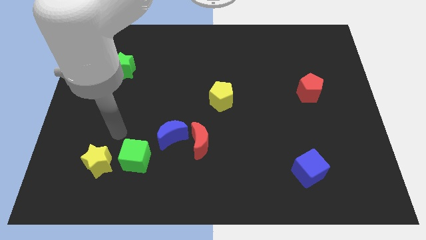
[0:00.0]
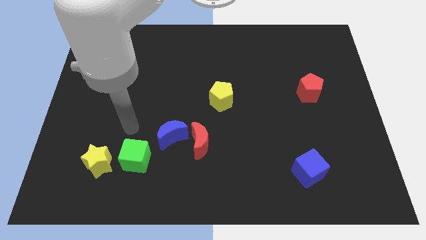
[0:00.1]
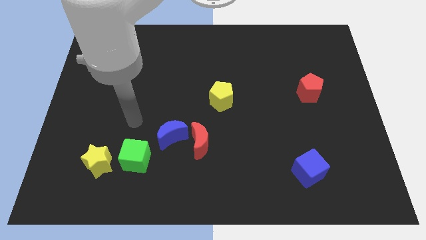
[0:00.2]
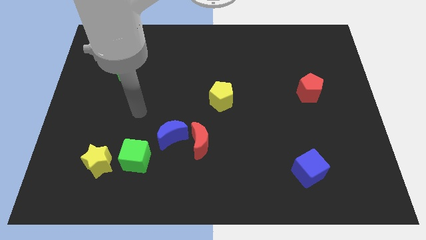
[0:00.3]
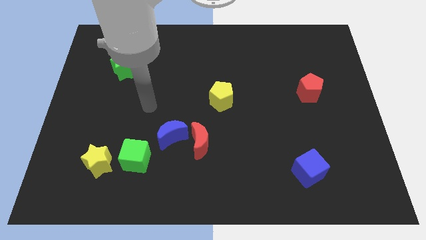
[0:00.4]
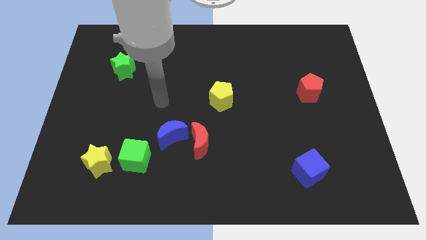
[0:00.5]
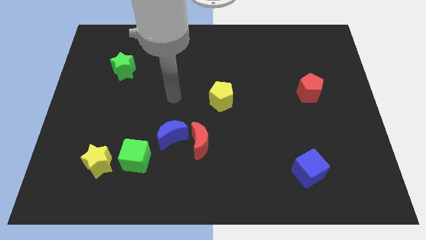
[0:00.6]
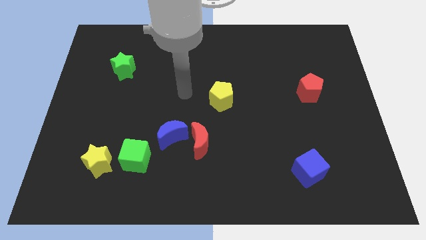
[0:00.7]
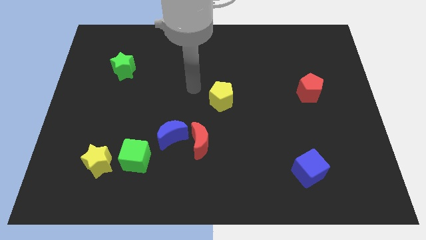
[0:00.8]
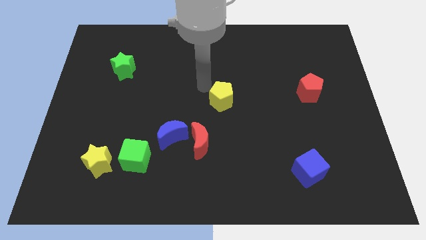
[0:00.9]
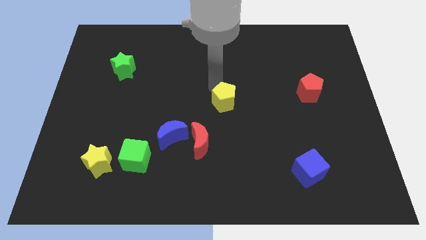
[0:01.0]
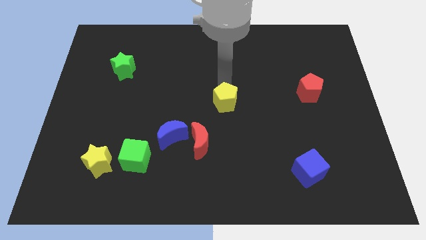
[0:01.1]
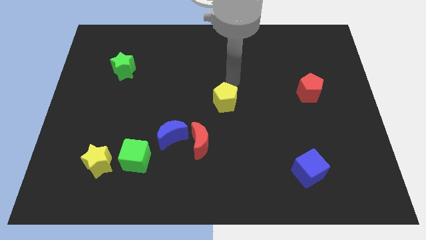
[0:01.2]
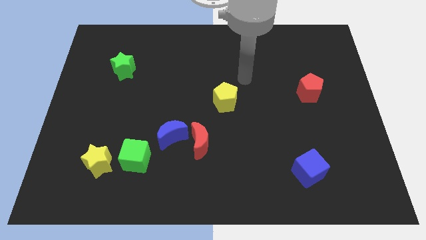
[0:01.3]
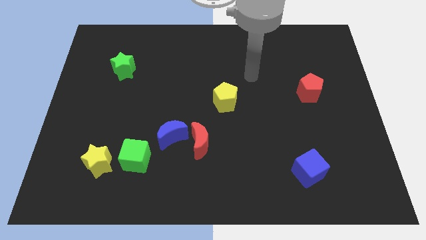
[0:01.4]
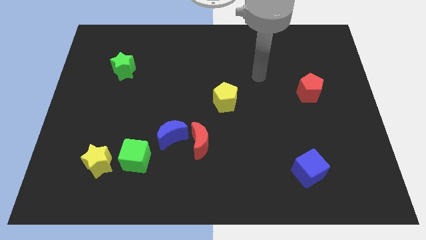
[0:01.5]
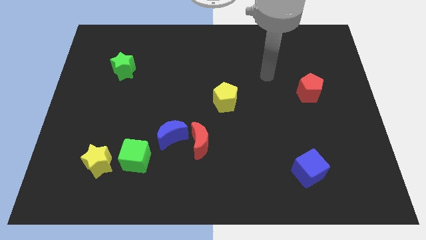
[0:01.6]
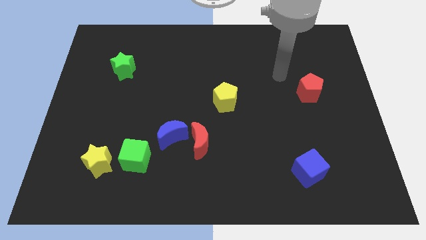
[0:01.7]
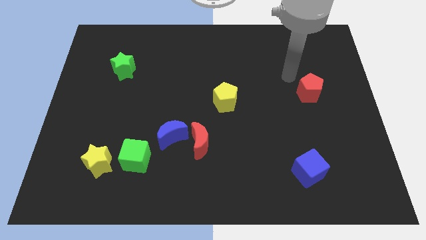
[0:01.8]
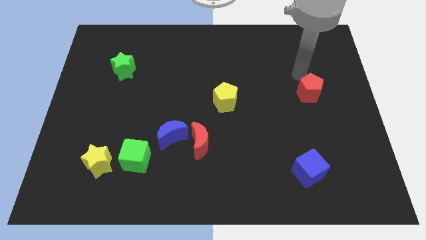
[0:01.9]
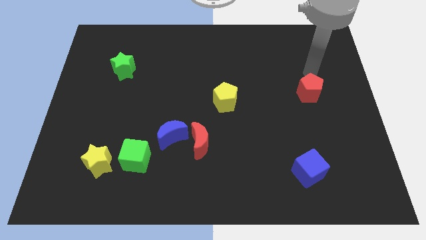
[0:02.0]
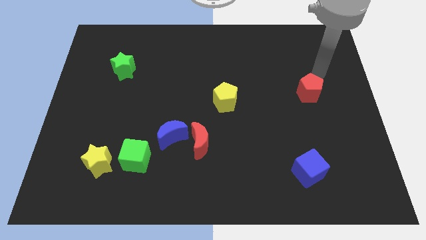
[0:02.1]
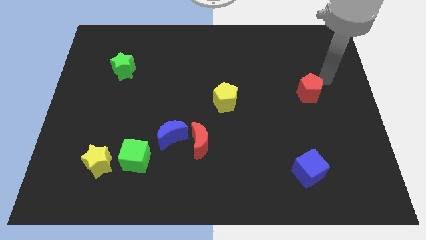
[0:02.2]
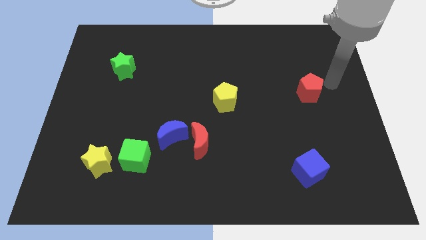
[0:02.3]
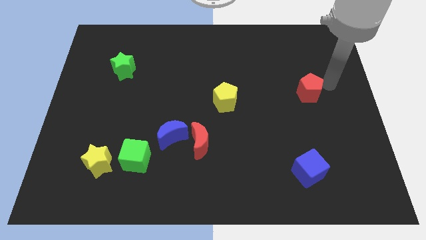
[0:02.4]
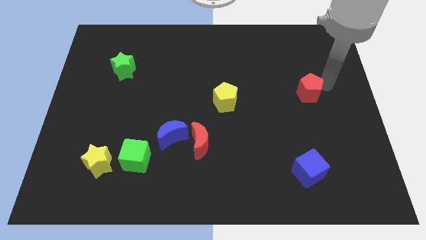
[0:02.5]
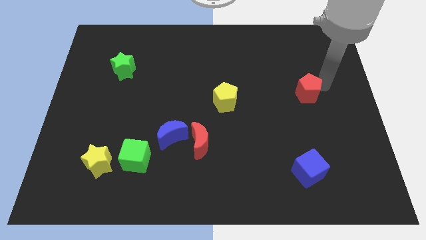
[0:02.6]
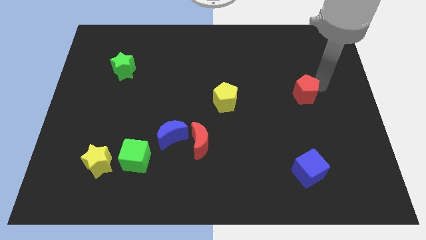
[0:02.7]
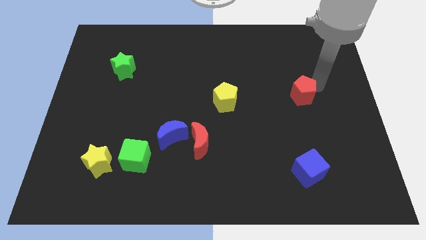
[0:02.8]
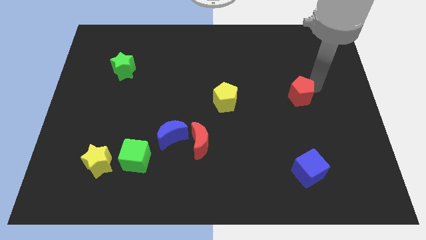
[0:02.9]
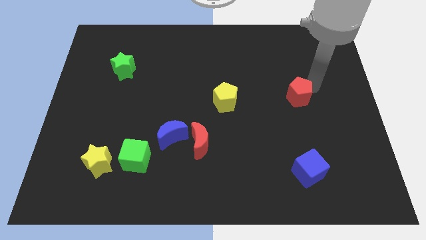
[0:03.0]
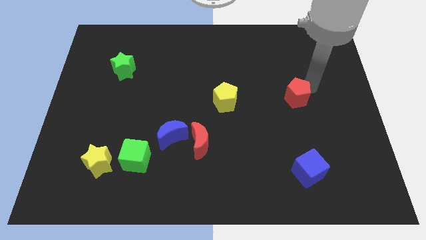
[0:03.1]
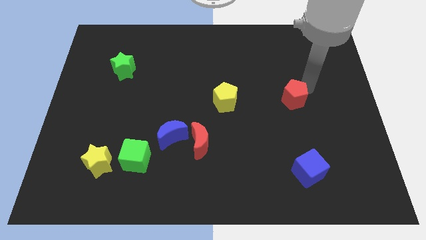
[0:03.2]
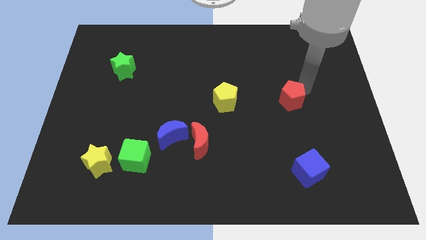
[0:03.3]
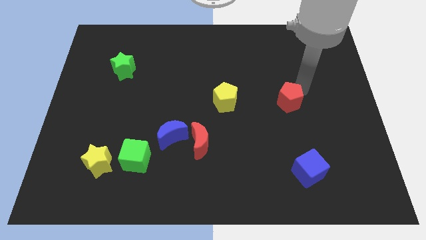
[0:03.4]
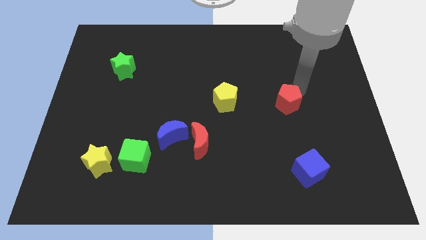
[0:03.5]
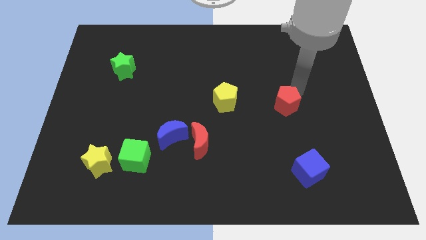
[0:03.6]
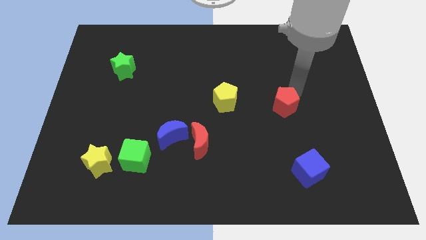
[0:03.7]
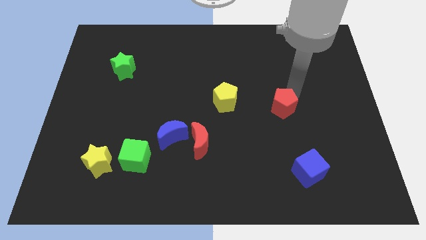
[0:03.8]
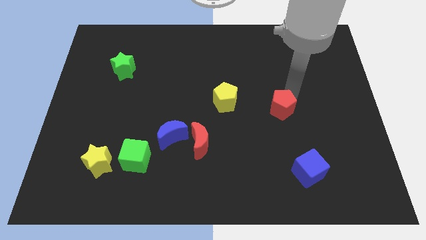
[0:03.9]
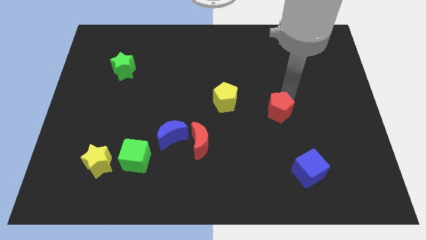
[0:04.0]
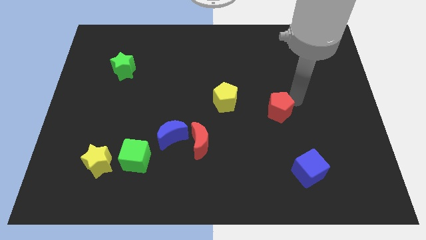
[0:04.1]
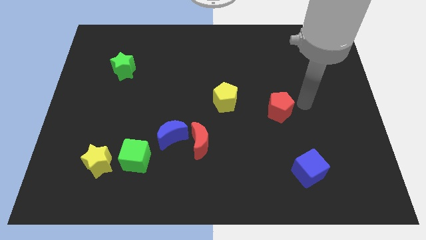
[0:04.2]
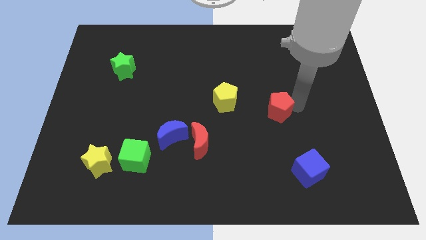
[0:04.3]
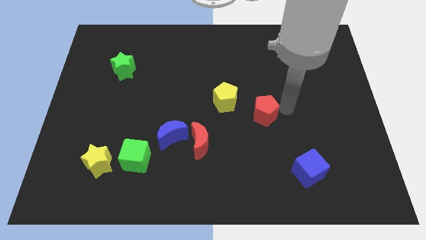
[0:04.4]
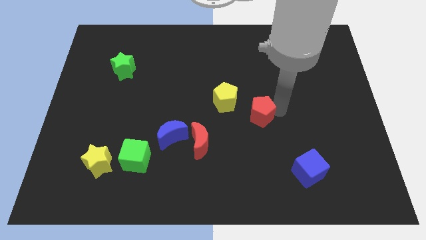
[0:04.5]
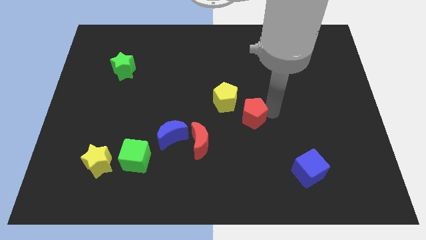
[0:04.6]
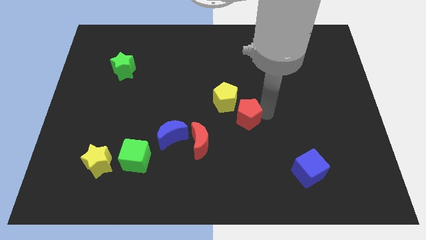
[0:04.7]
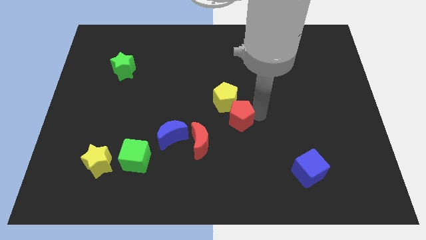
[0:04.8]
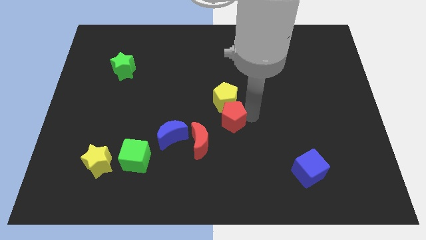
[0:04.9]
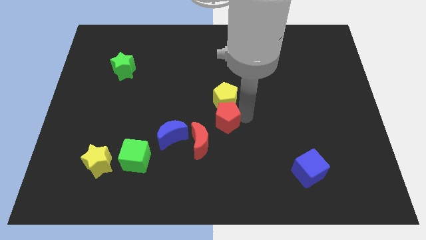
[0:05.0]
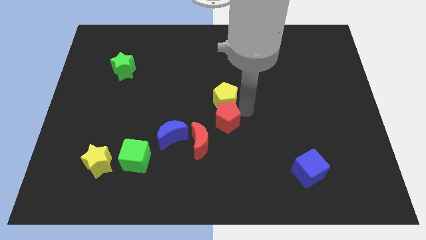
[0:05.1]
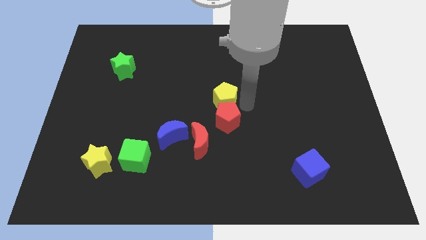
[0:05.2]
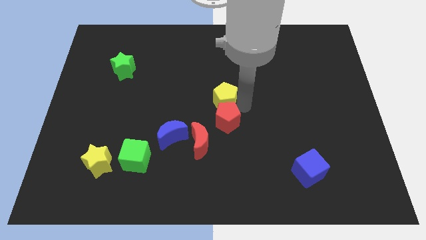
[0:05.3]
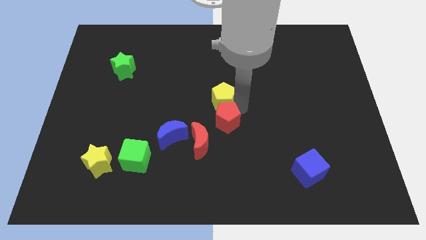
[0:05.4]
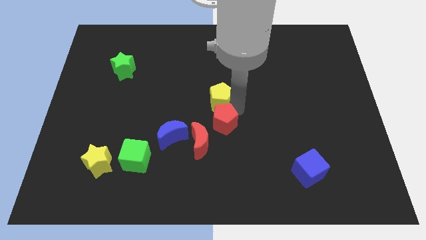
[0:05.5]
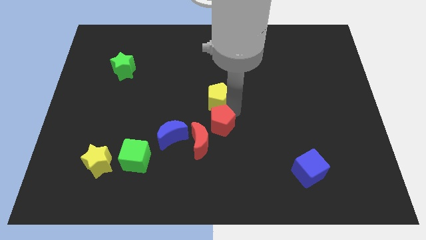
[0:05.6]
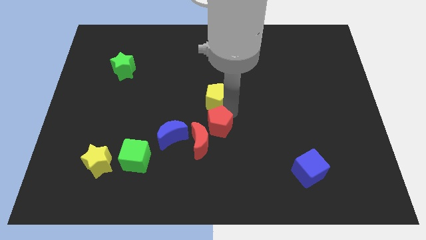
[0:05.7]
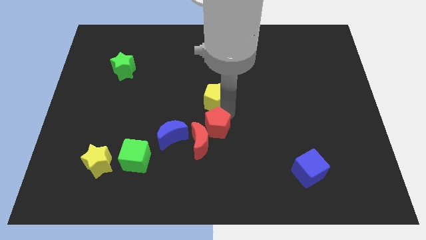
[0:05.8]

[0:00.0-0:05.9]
move the red pentagon to the red moon
